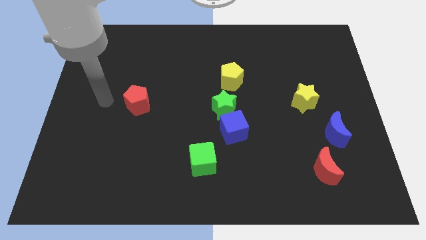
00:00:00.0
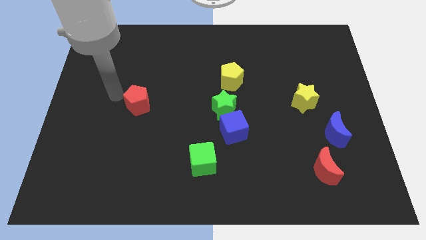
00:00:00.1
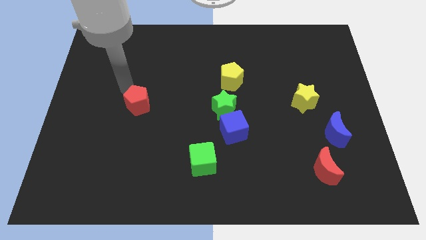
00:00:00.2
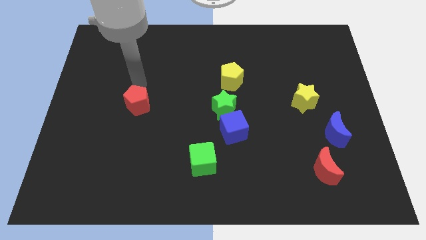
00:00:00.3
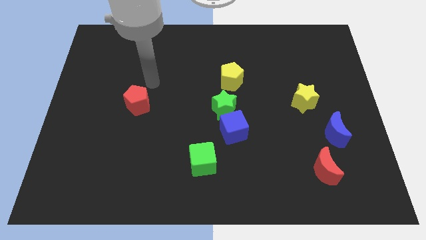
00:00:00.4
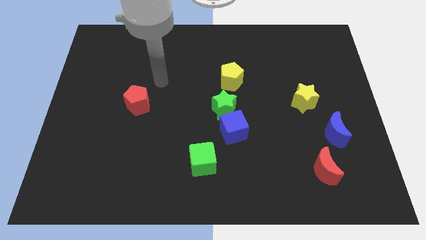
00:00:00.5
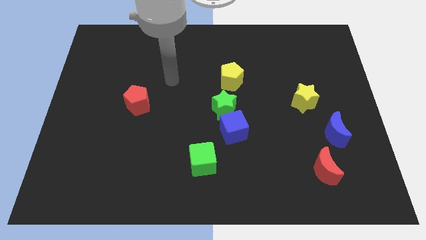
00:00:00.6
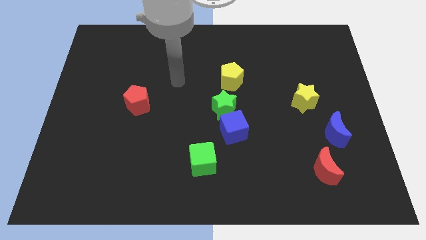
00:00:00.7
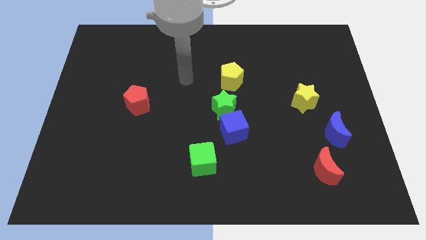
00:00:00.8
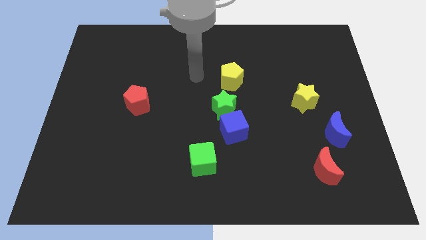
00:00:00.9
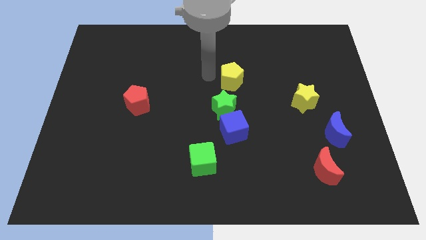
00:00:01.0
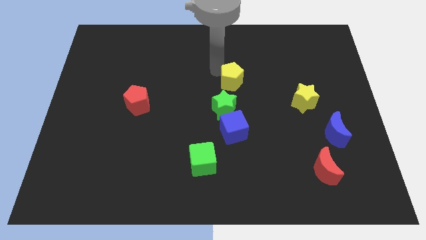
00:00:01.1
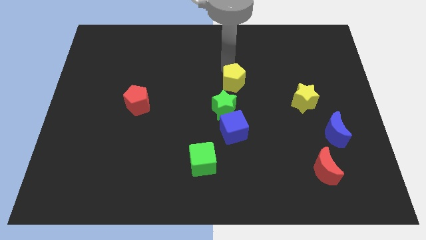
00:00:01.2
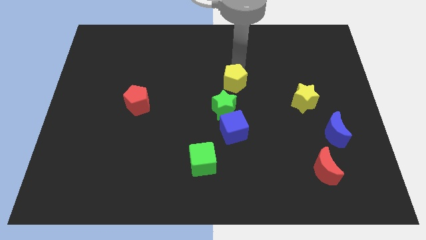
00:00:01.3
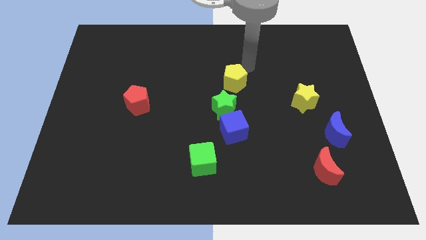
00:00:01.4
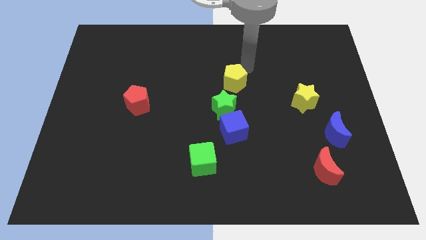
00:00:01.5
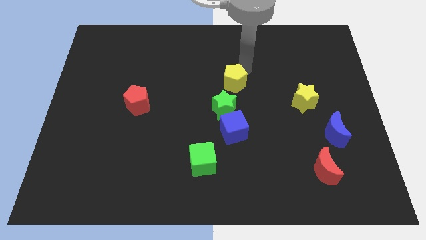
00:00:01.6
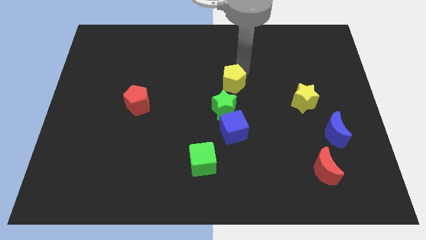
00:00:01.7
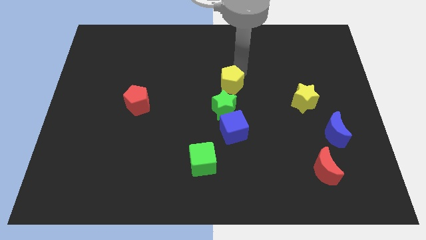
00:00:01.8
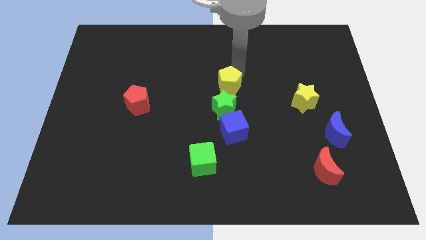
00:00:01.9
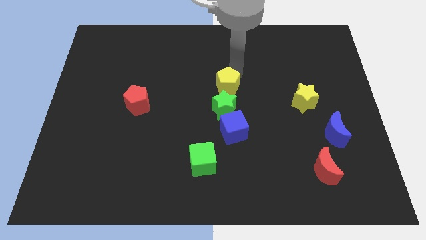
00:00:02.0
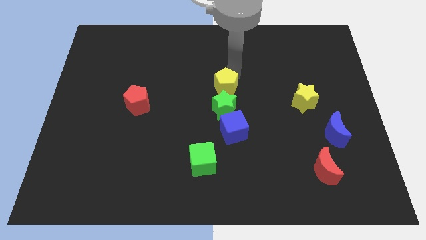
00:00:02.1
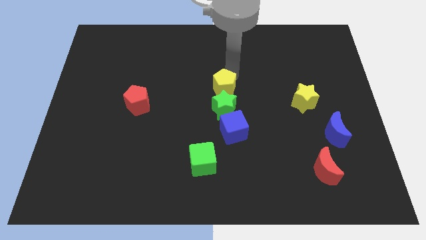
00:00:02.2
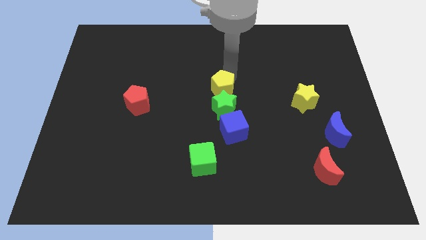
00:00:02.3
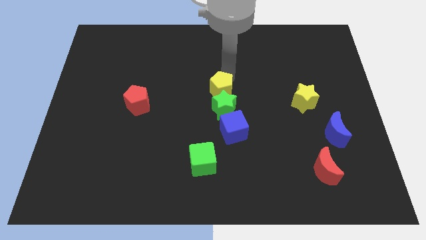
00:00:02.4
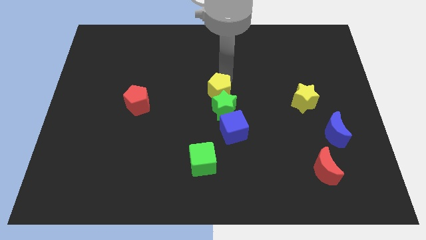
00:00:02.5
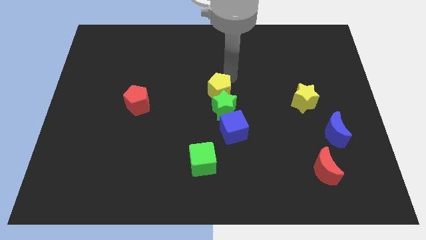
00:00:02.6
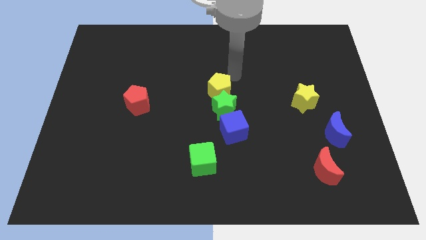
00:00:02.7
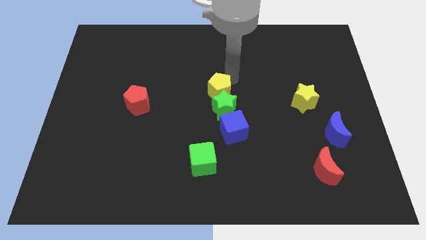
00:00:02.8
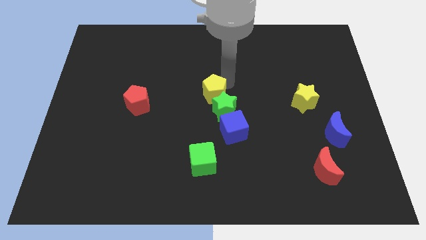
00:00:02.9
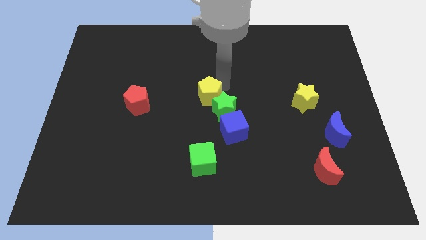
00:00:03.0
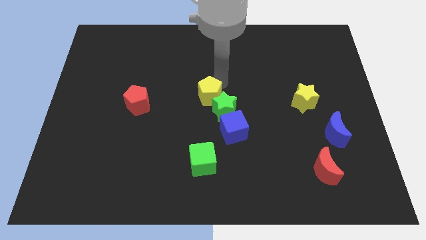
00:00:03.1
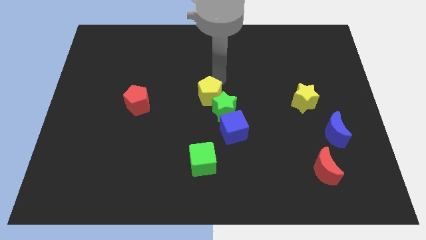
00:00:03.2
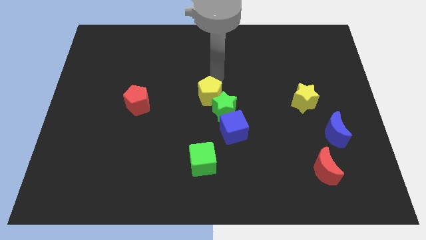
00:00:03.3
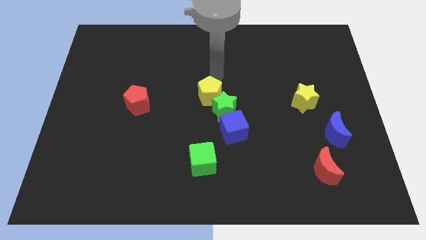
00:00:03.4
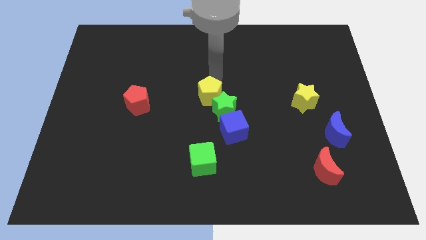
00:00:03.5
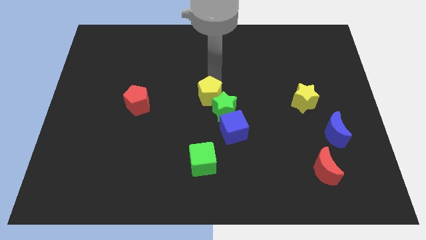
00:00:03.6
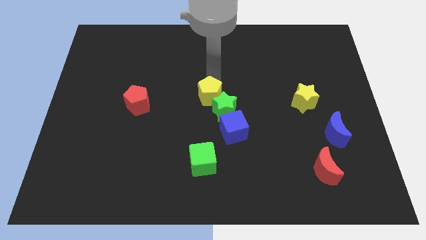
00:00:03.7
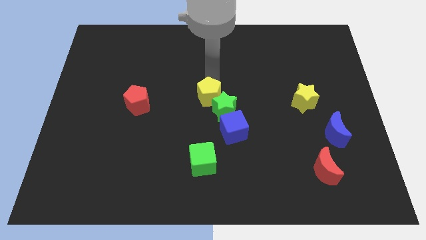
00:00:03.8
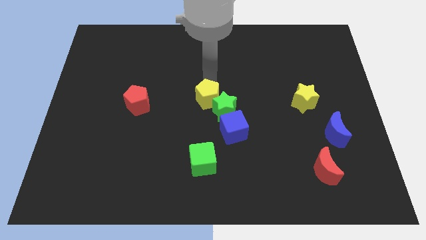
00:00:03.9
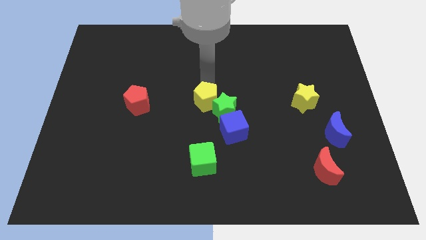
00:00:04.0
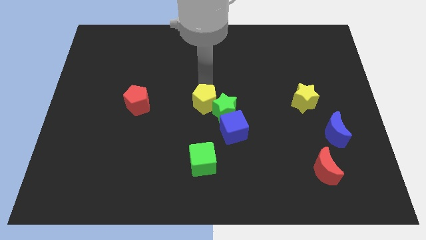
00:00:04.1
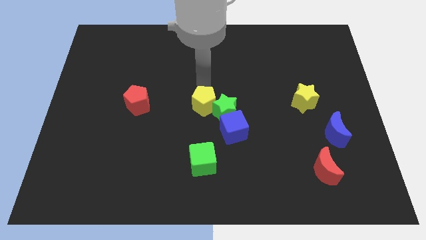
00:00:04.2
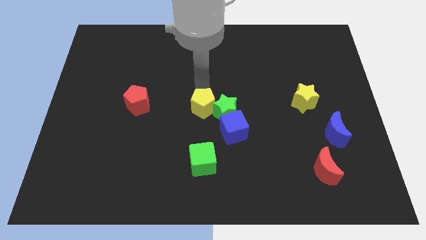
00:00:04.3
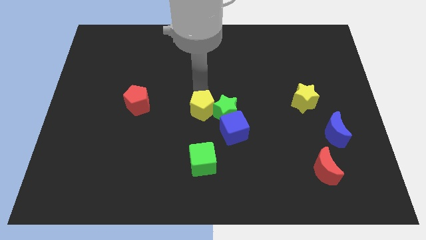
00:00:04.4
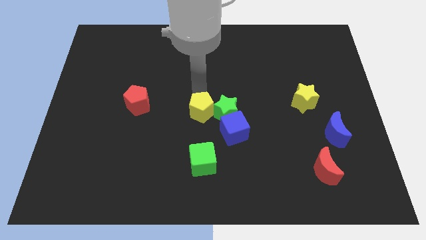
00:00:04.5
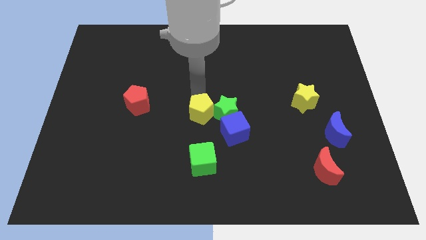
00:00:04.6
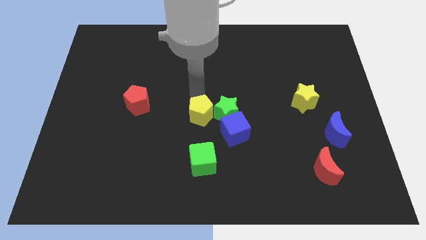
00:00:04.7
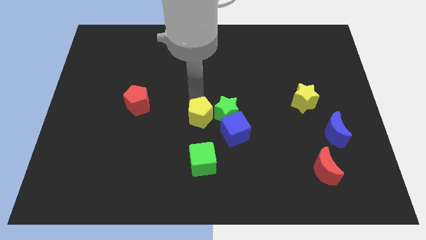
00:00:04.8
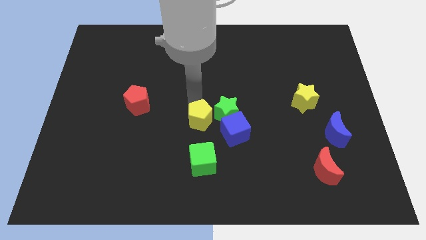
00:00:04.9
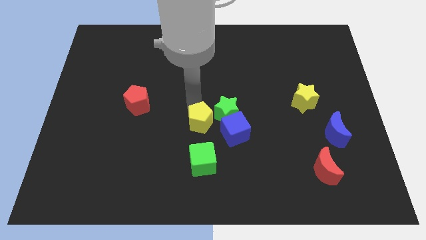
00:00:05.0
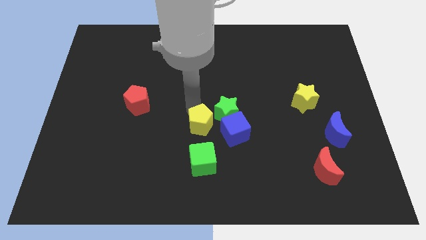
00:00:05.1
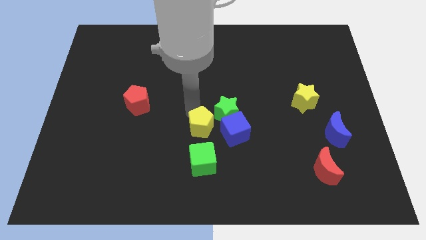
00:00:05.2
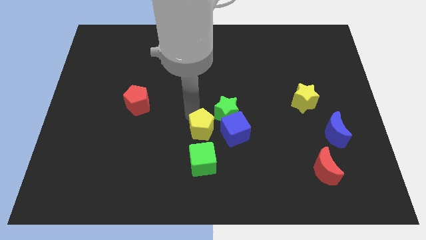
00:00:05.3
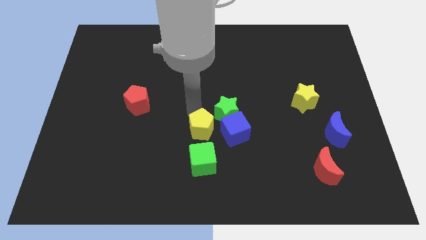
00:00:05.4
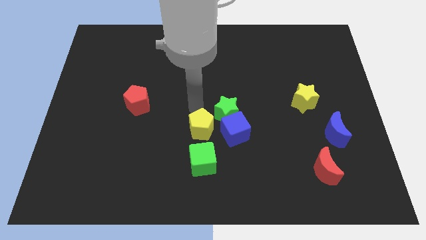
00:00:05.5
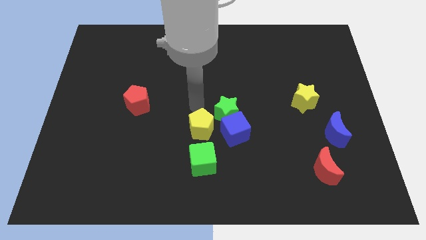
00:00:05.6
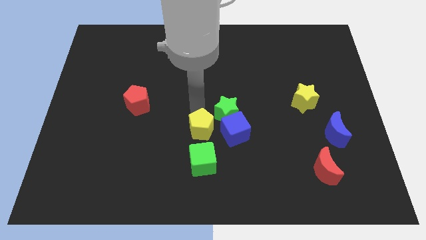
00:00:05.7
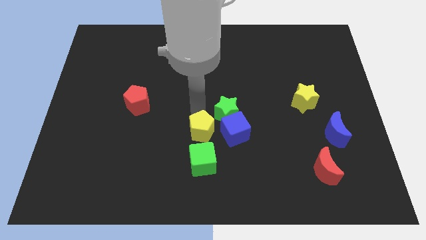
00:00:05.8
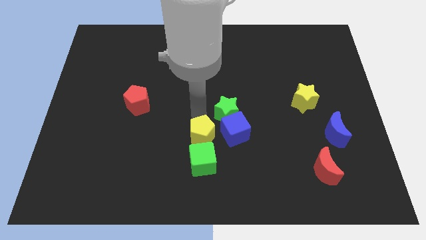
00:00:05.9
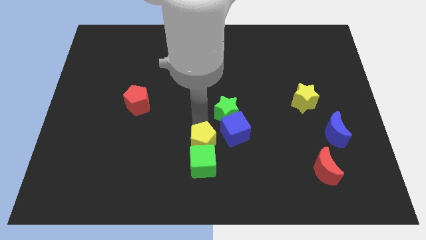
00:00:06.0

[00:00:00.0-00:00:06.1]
put the yellow pentagon towards the green cube

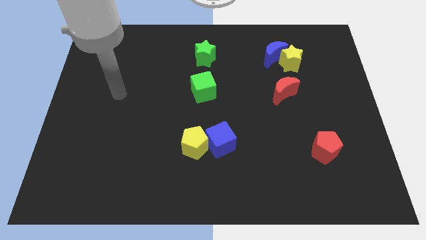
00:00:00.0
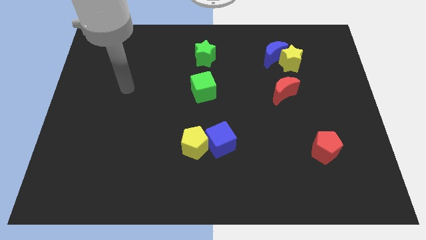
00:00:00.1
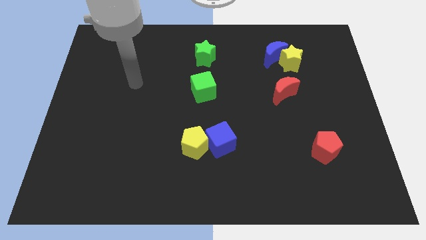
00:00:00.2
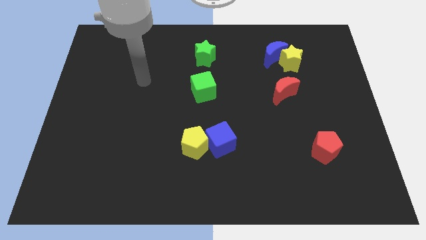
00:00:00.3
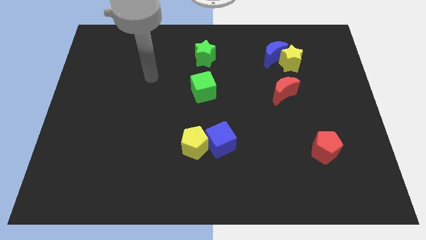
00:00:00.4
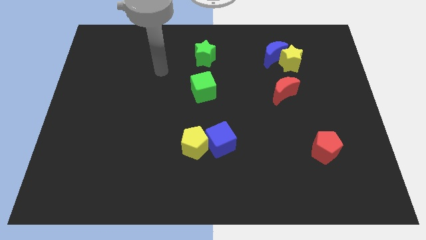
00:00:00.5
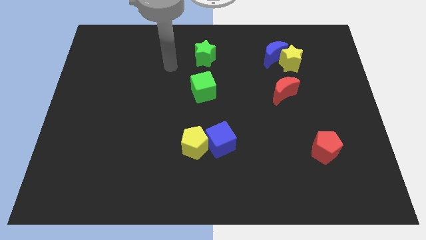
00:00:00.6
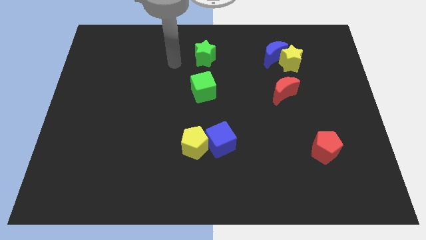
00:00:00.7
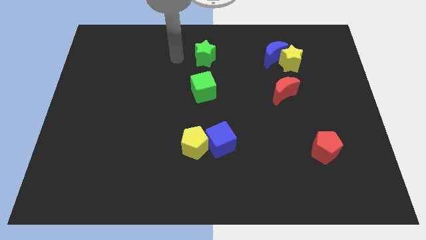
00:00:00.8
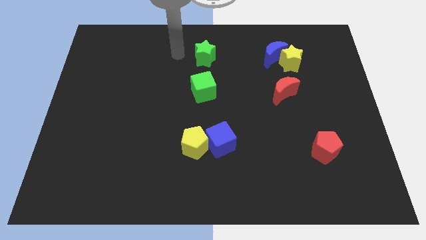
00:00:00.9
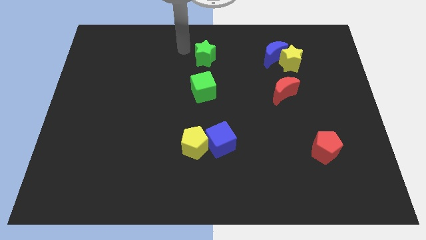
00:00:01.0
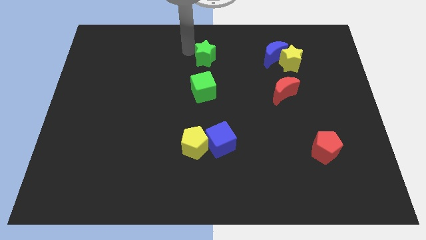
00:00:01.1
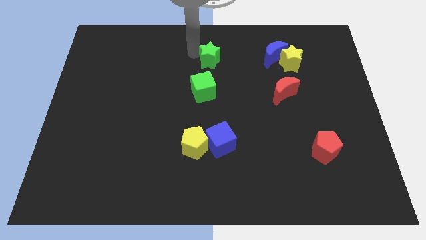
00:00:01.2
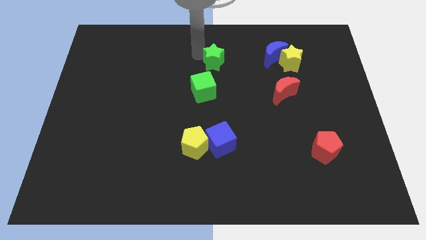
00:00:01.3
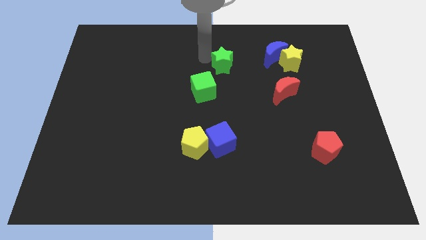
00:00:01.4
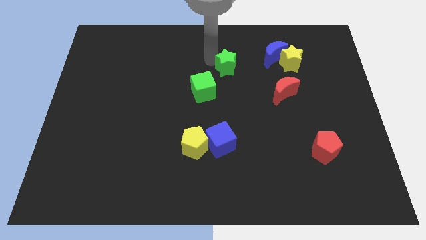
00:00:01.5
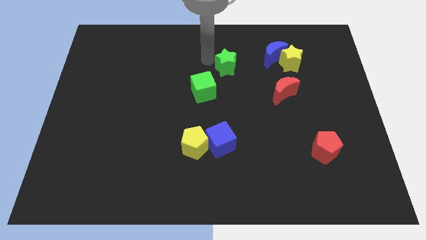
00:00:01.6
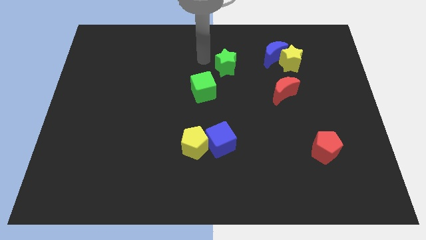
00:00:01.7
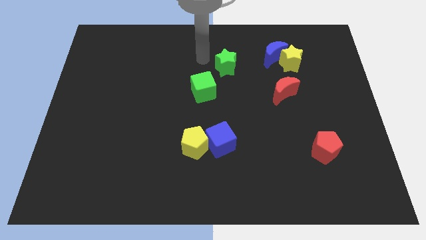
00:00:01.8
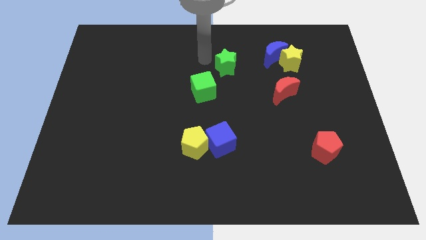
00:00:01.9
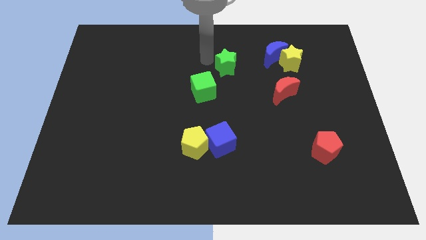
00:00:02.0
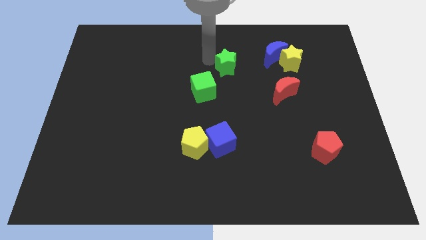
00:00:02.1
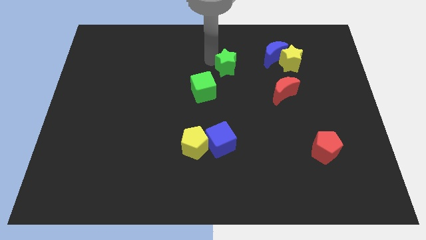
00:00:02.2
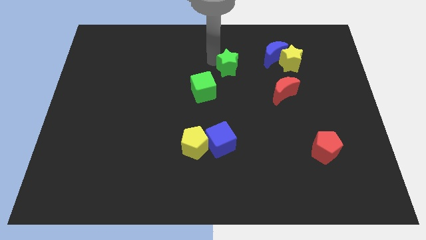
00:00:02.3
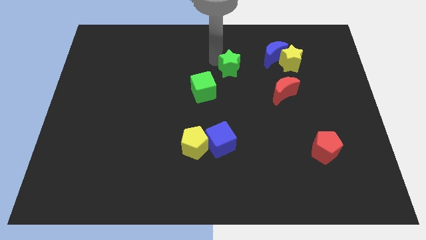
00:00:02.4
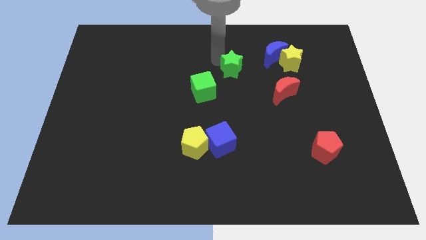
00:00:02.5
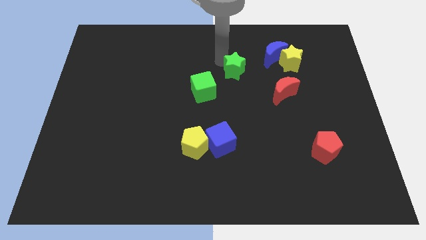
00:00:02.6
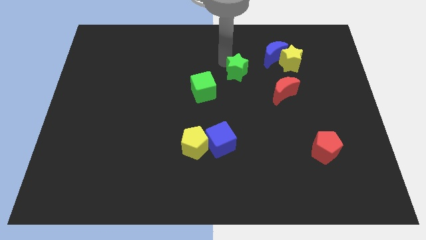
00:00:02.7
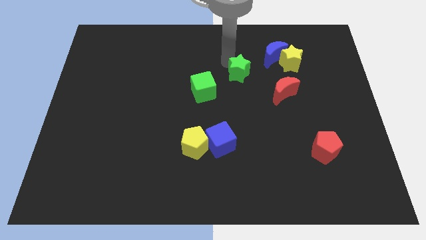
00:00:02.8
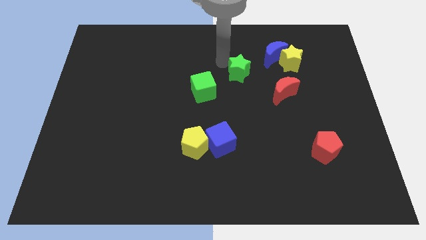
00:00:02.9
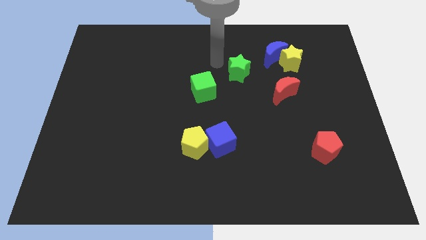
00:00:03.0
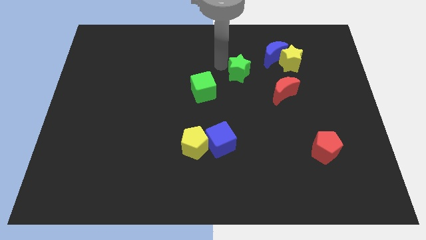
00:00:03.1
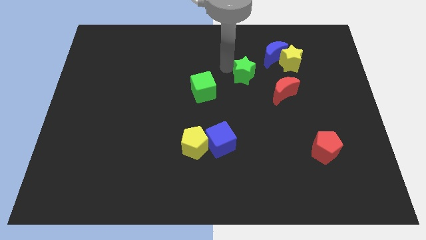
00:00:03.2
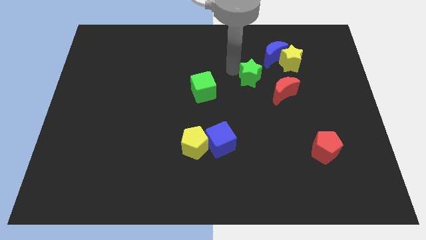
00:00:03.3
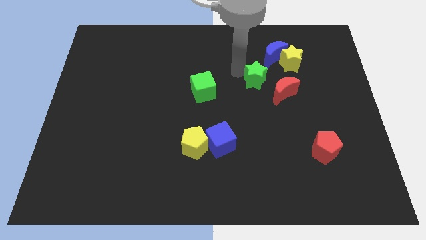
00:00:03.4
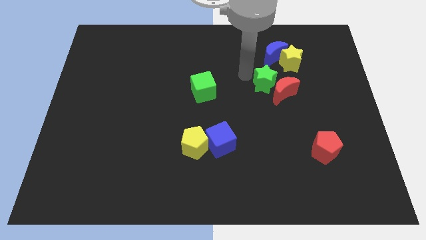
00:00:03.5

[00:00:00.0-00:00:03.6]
push the green star towards the red moon
